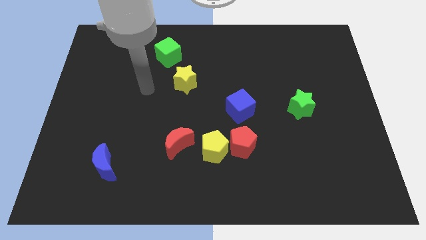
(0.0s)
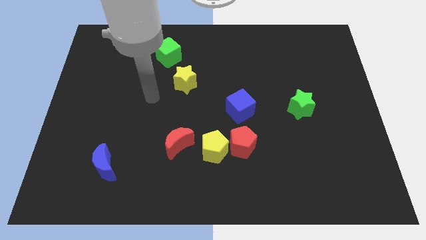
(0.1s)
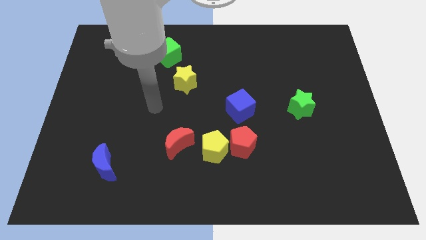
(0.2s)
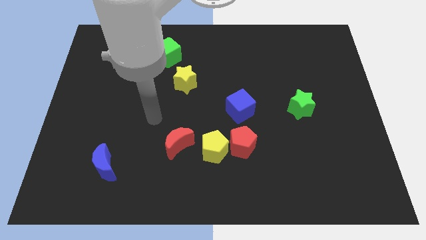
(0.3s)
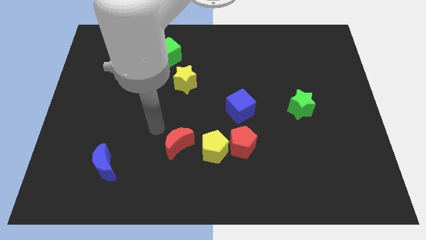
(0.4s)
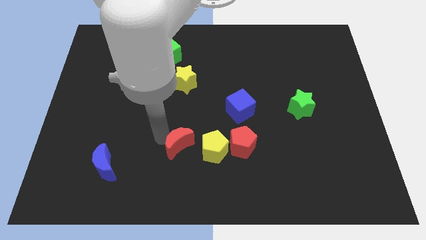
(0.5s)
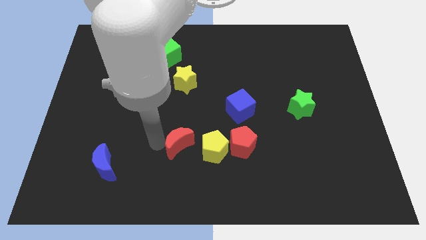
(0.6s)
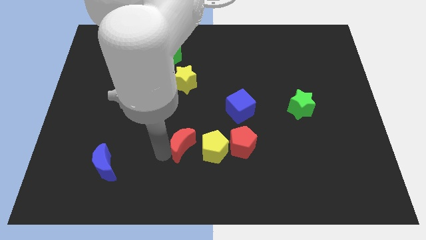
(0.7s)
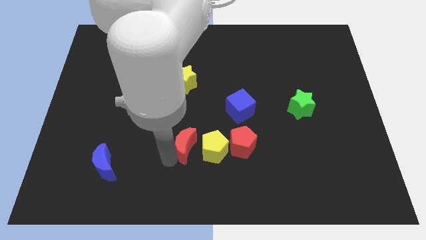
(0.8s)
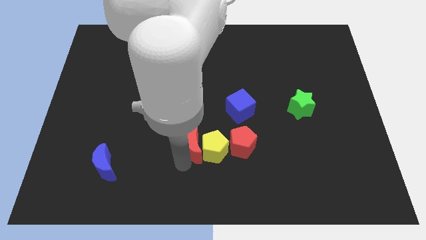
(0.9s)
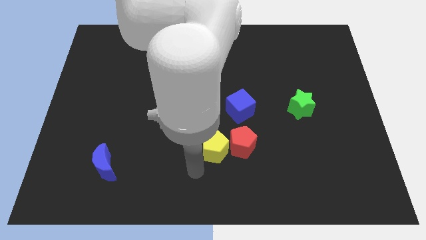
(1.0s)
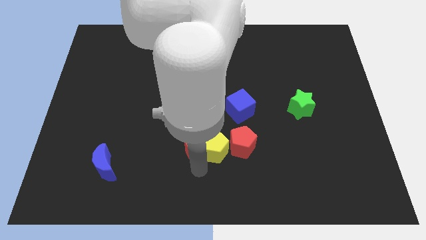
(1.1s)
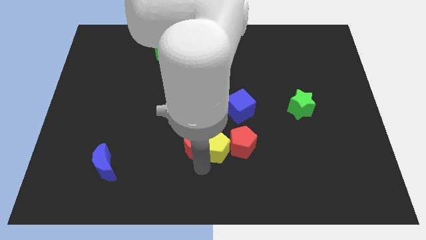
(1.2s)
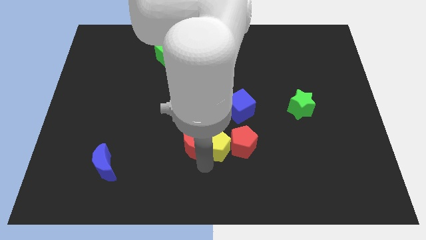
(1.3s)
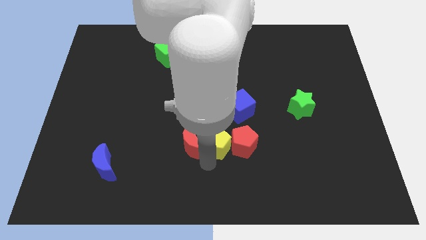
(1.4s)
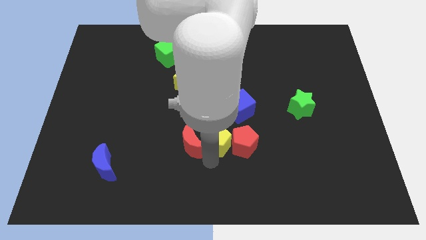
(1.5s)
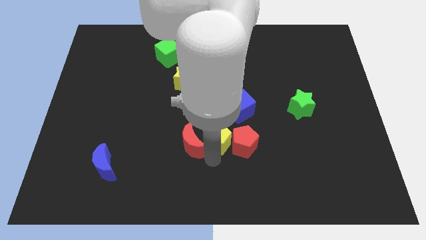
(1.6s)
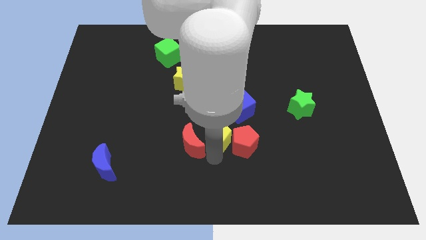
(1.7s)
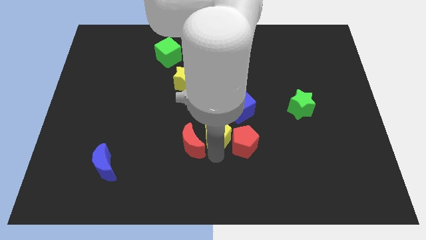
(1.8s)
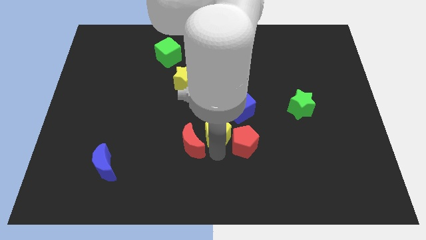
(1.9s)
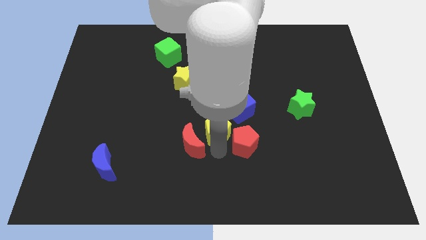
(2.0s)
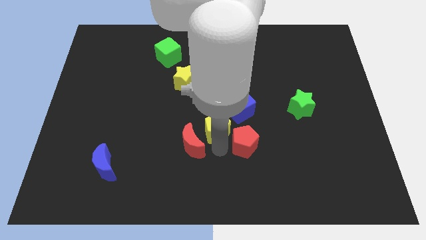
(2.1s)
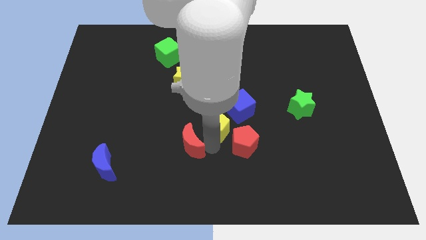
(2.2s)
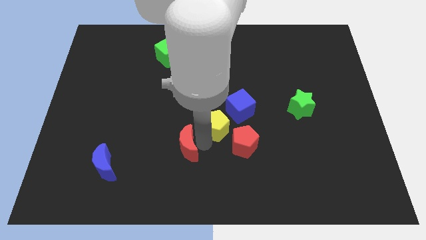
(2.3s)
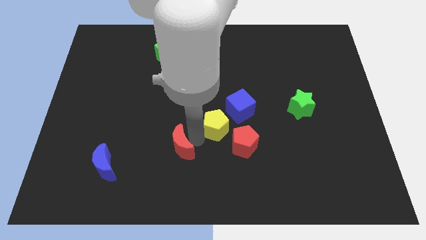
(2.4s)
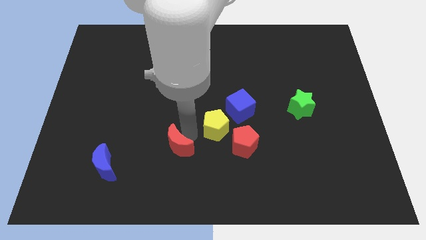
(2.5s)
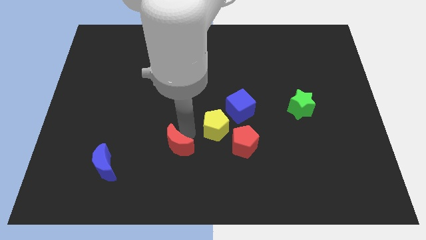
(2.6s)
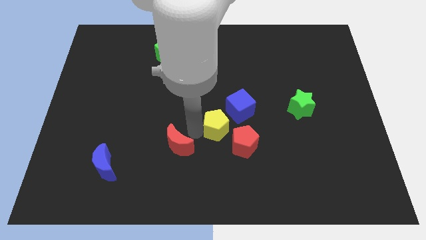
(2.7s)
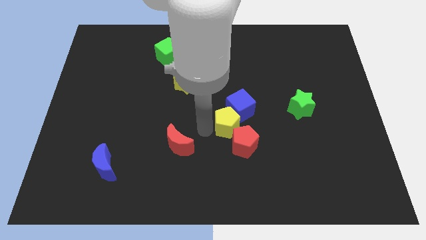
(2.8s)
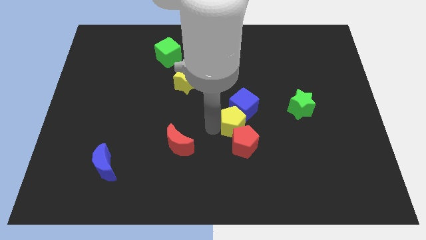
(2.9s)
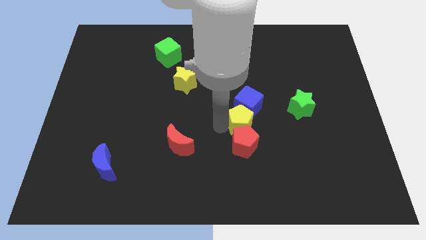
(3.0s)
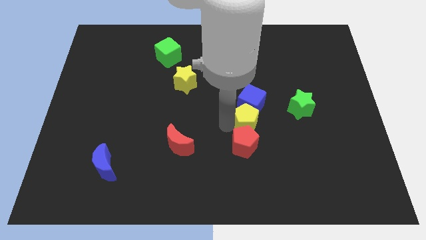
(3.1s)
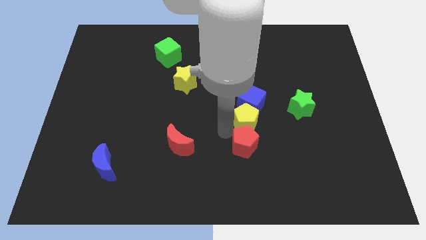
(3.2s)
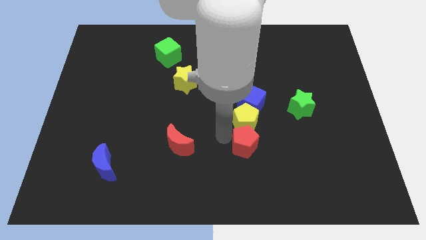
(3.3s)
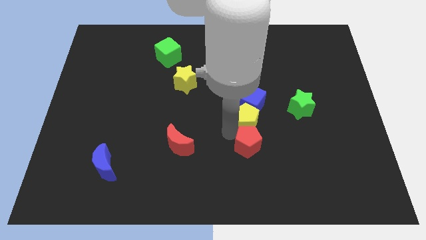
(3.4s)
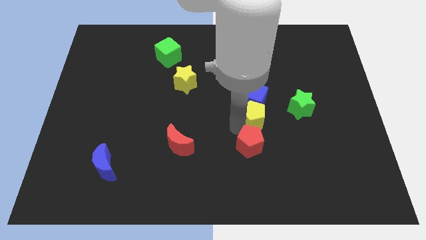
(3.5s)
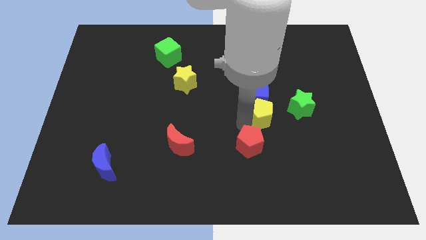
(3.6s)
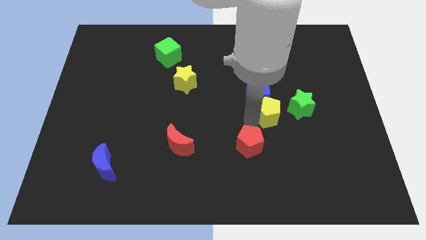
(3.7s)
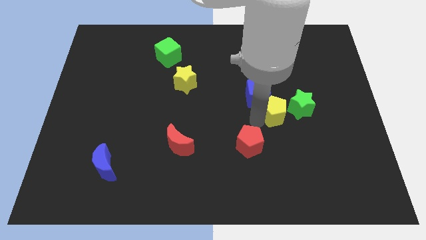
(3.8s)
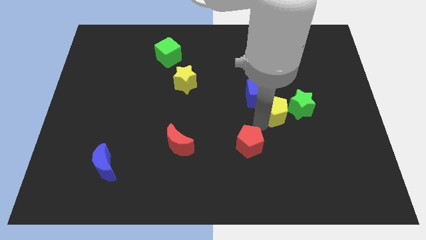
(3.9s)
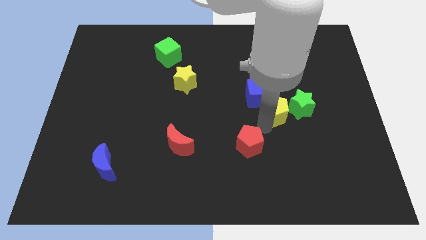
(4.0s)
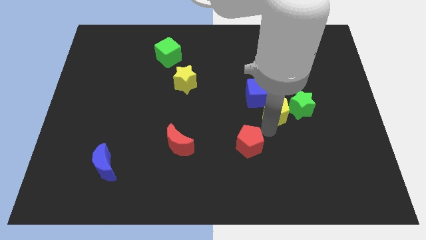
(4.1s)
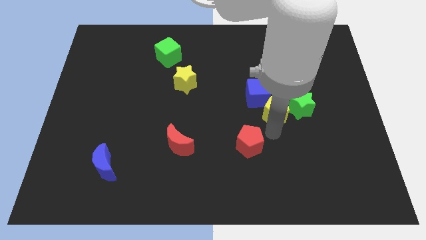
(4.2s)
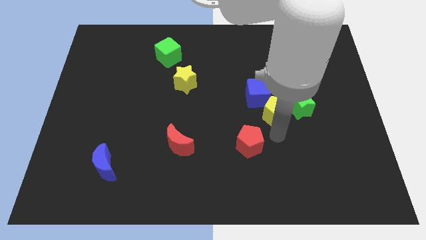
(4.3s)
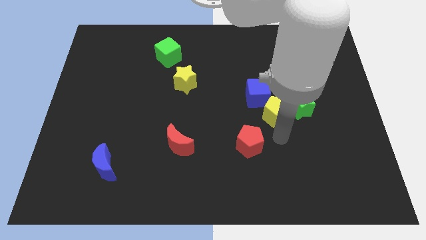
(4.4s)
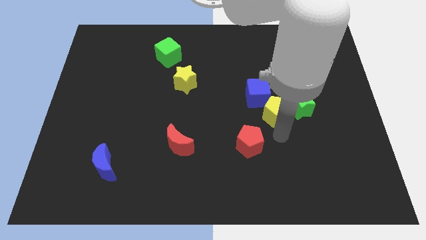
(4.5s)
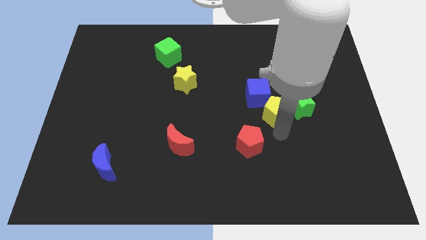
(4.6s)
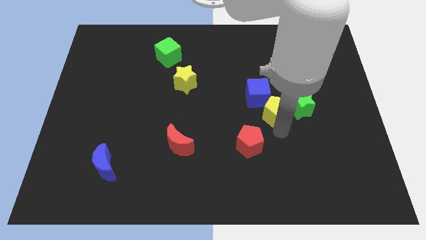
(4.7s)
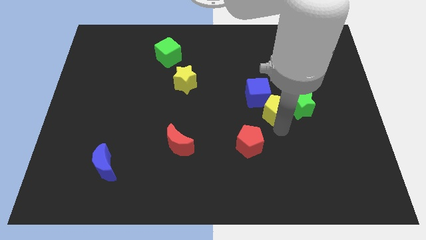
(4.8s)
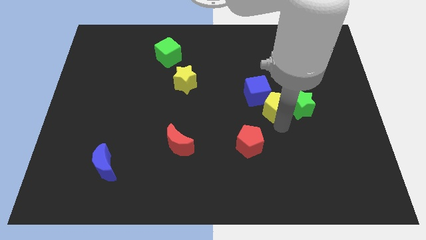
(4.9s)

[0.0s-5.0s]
put the yellow pentagon right of the blue cube

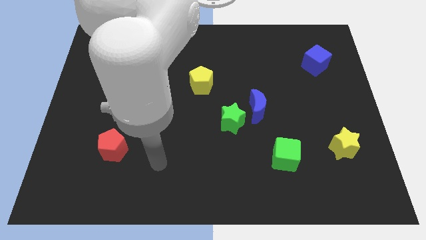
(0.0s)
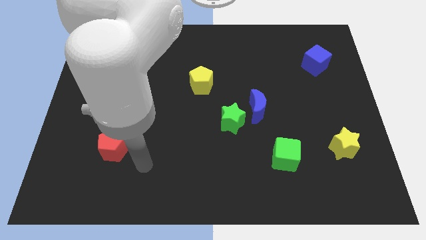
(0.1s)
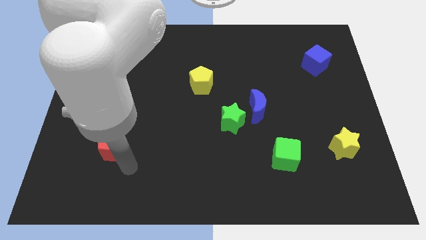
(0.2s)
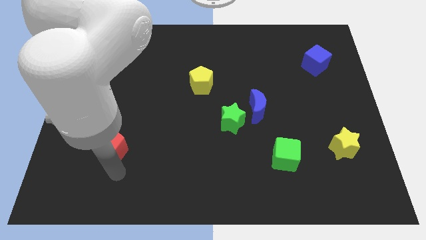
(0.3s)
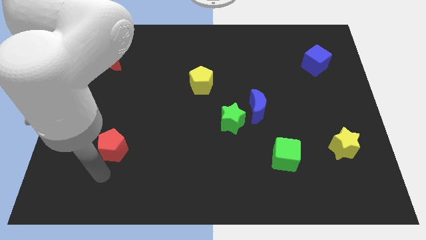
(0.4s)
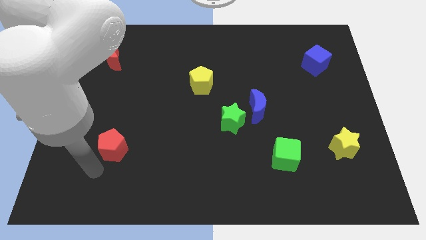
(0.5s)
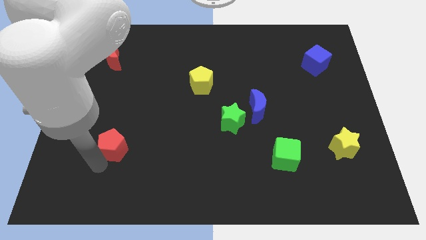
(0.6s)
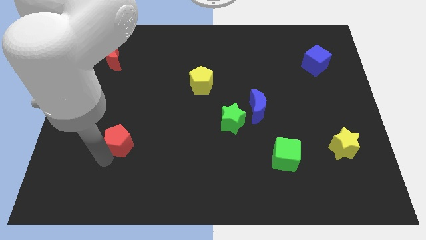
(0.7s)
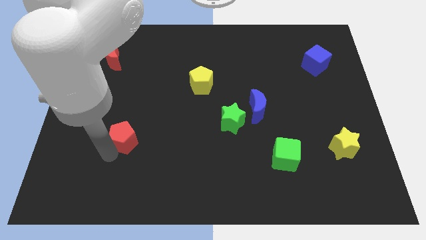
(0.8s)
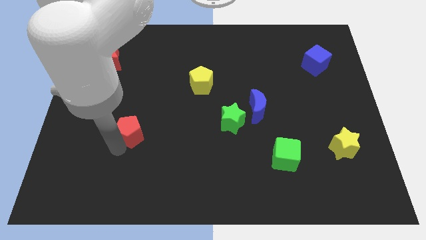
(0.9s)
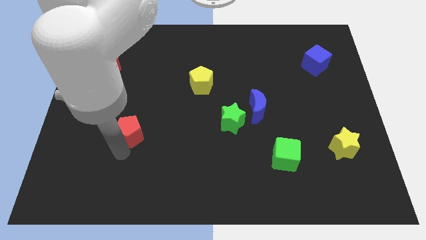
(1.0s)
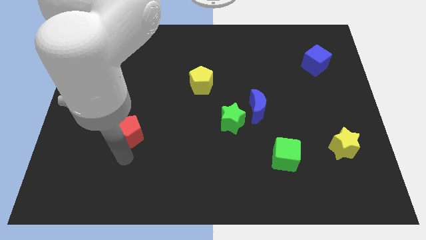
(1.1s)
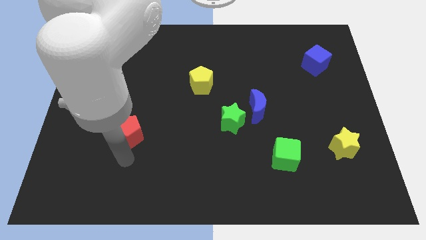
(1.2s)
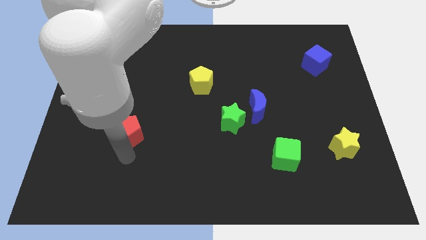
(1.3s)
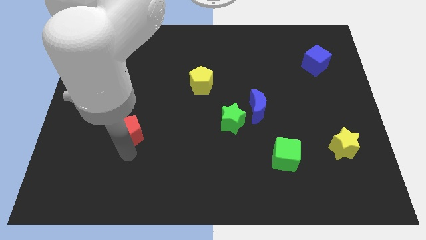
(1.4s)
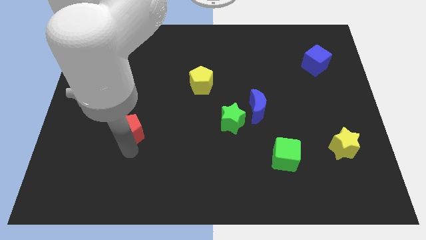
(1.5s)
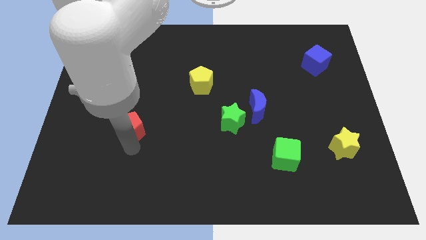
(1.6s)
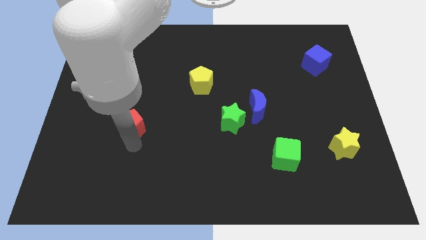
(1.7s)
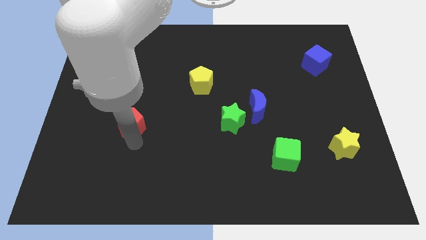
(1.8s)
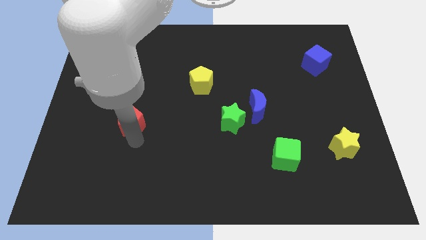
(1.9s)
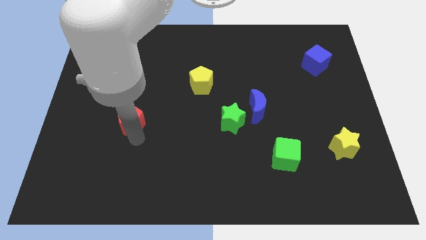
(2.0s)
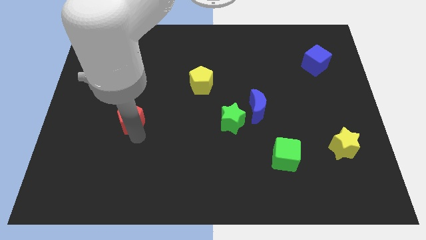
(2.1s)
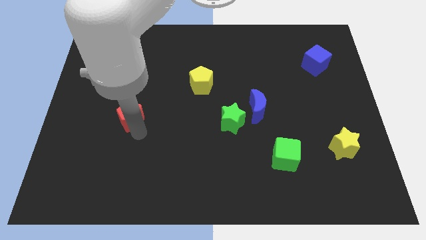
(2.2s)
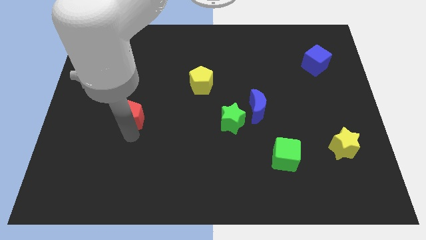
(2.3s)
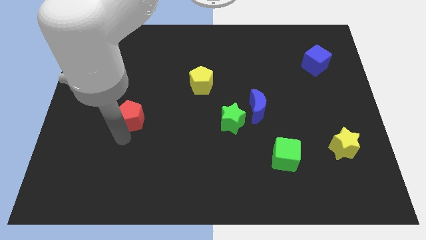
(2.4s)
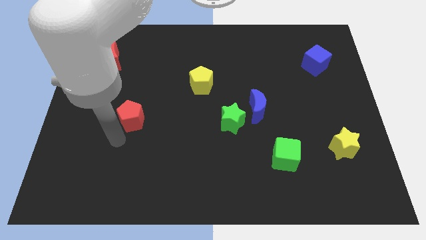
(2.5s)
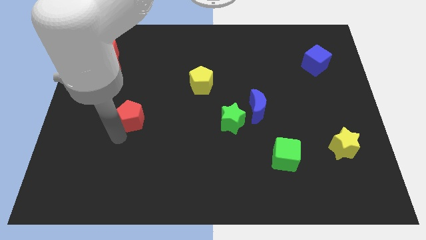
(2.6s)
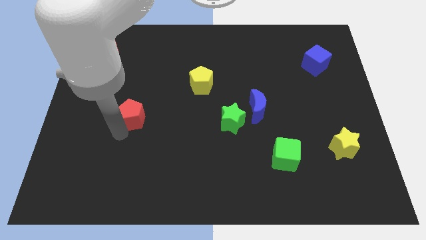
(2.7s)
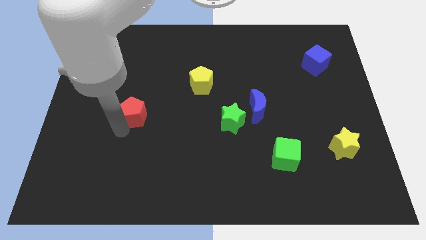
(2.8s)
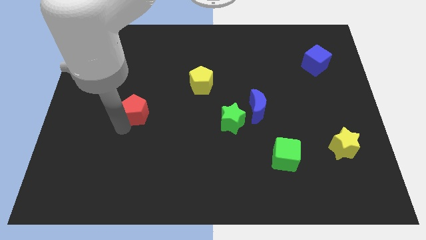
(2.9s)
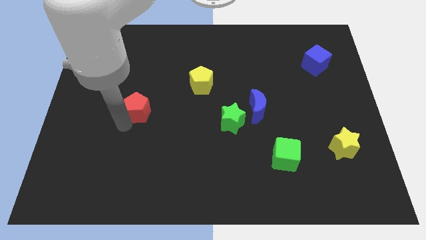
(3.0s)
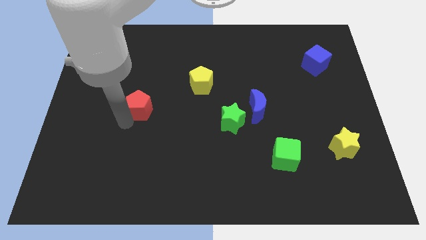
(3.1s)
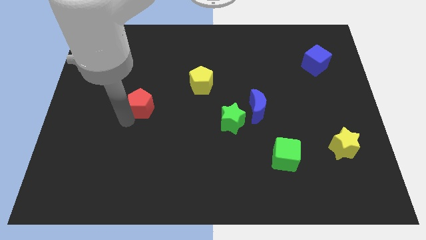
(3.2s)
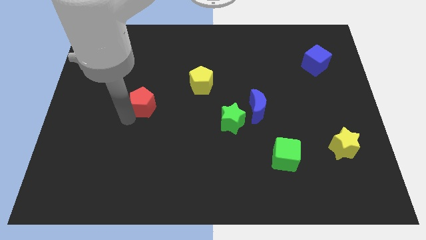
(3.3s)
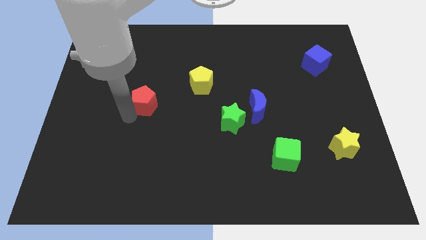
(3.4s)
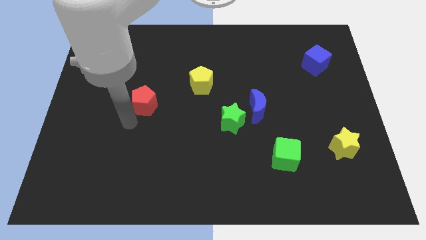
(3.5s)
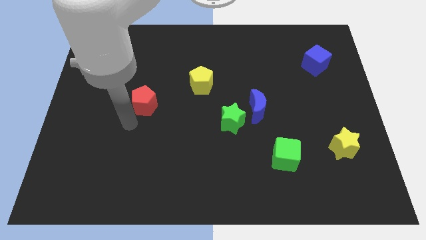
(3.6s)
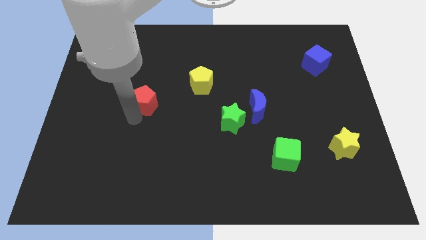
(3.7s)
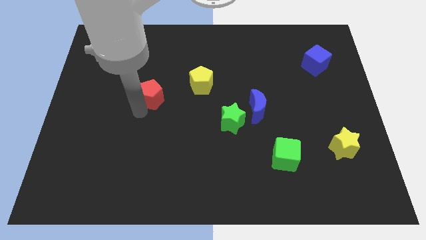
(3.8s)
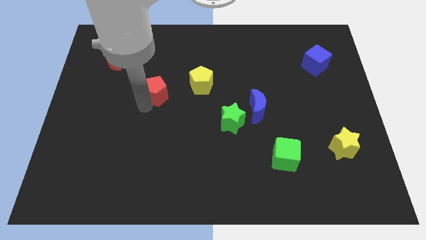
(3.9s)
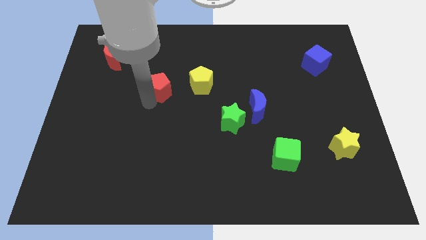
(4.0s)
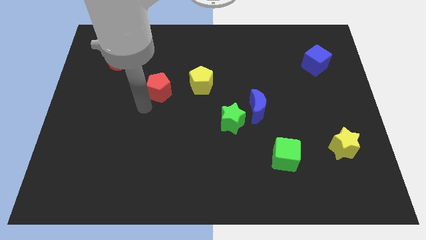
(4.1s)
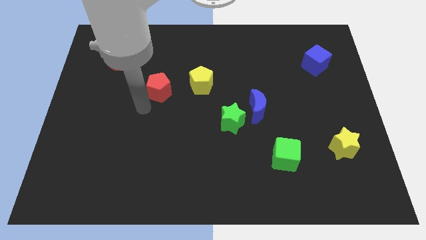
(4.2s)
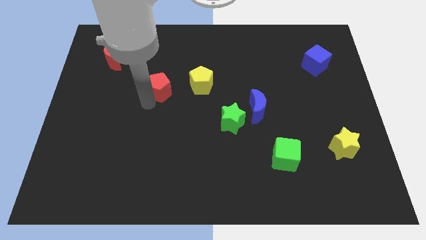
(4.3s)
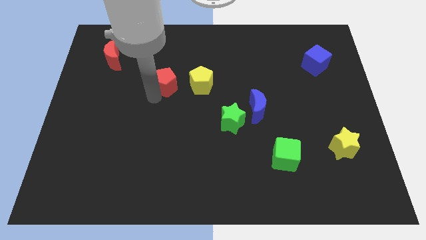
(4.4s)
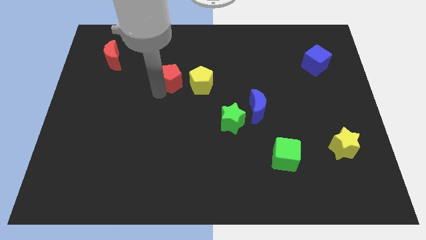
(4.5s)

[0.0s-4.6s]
move the red pentagon to the top left side of the yellow pentagon
